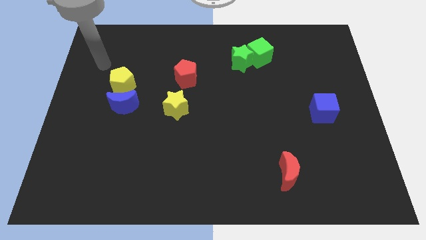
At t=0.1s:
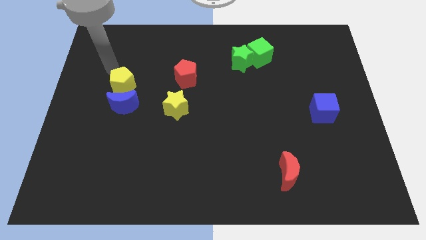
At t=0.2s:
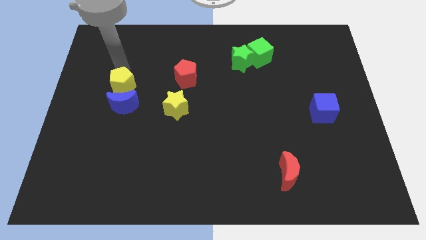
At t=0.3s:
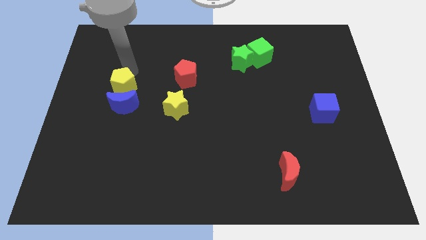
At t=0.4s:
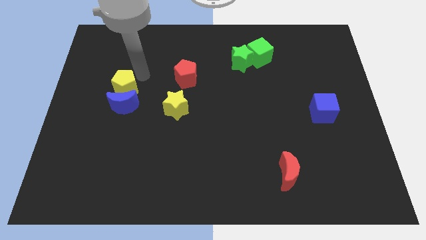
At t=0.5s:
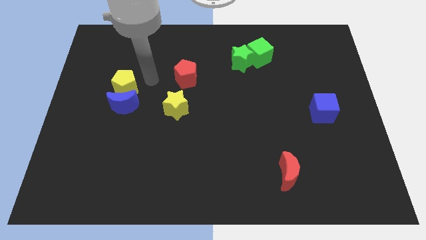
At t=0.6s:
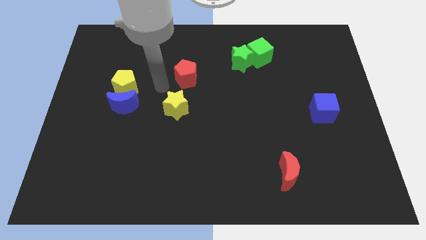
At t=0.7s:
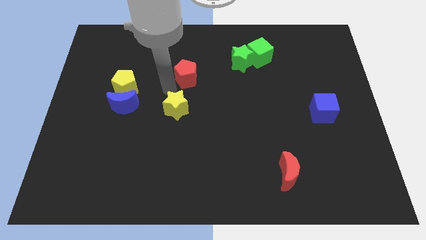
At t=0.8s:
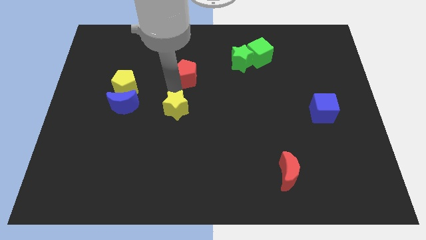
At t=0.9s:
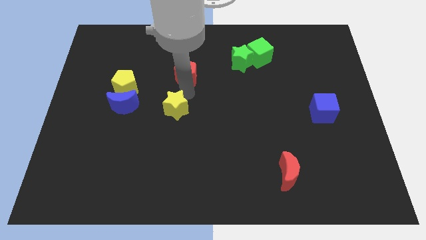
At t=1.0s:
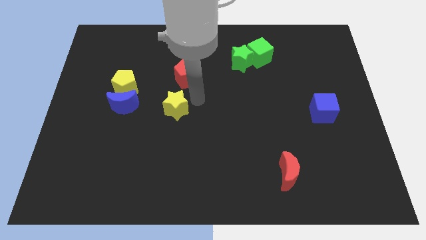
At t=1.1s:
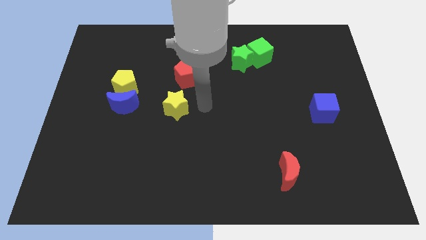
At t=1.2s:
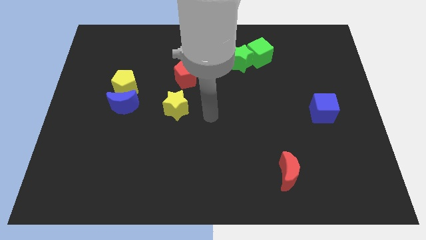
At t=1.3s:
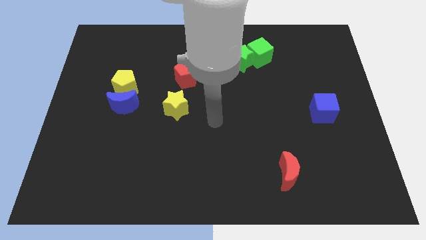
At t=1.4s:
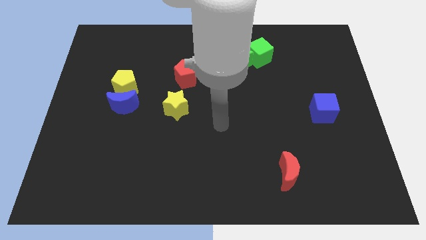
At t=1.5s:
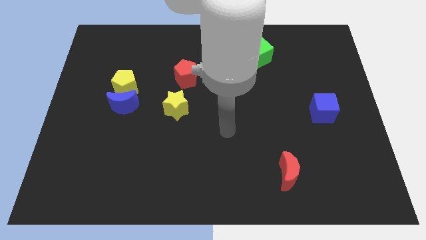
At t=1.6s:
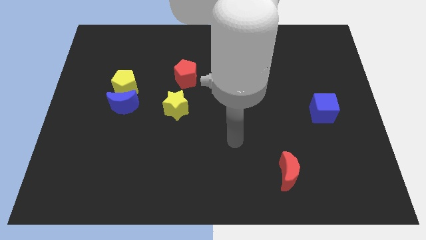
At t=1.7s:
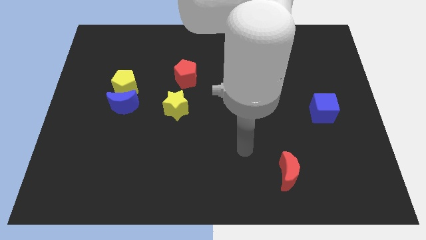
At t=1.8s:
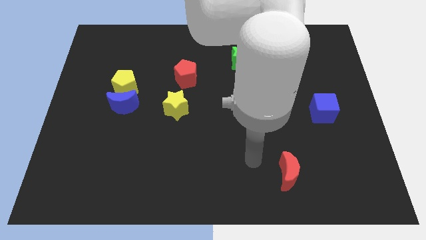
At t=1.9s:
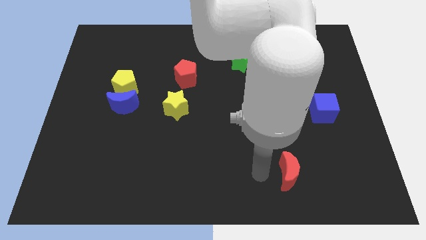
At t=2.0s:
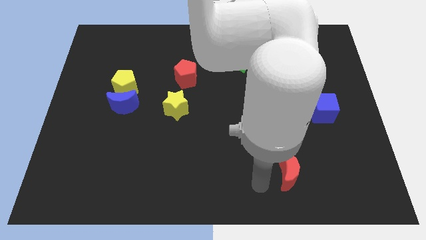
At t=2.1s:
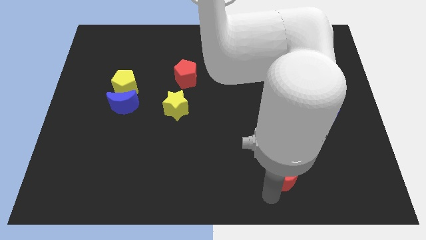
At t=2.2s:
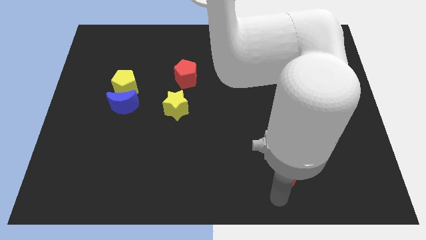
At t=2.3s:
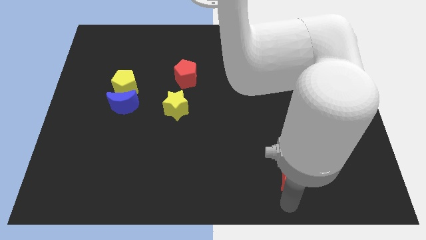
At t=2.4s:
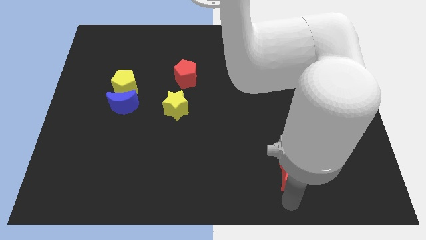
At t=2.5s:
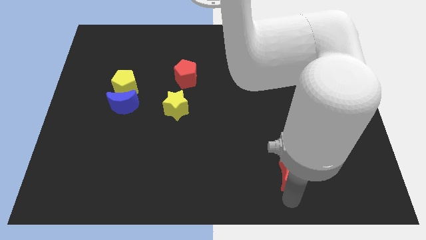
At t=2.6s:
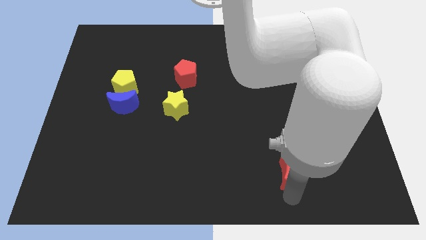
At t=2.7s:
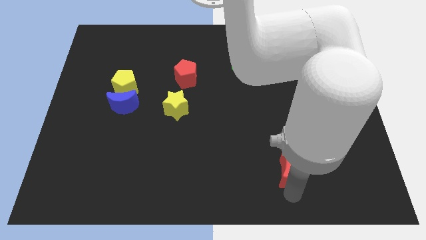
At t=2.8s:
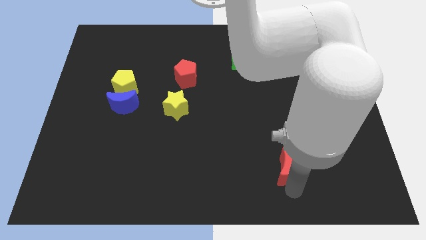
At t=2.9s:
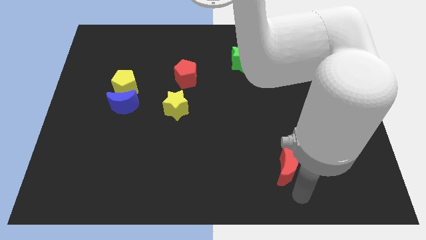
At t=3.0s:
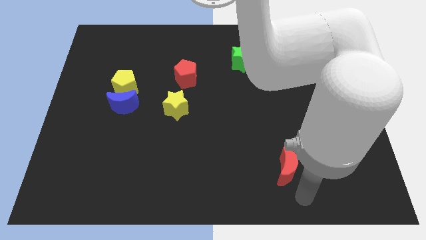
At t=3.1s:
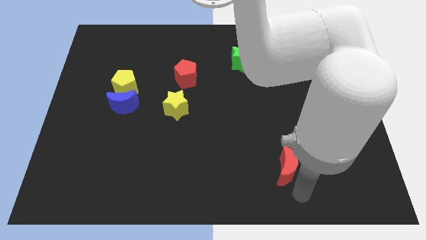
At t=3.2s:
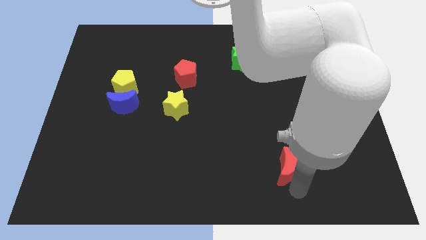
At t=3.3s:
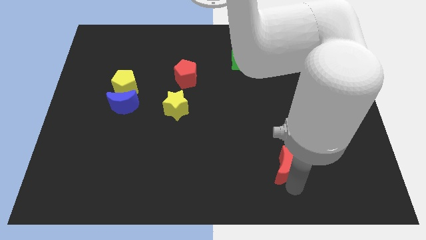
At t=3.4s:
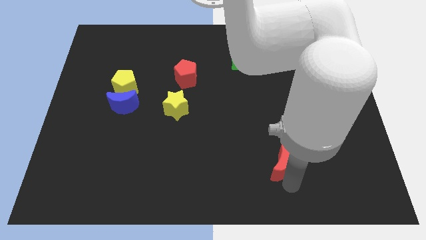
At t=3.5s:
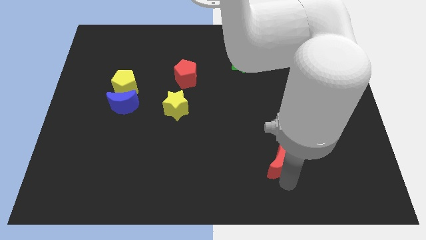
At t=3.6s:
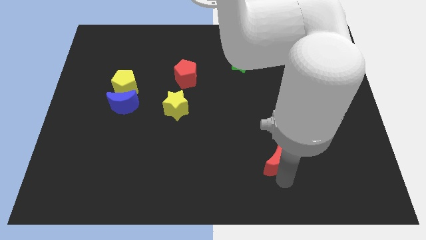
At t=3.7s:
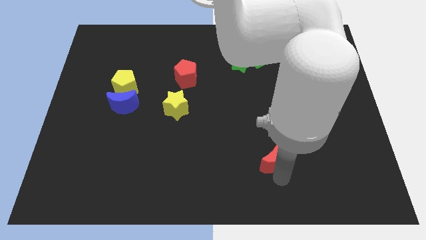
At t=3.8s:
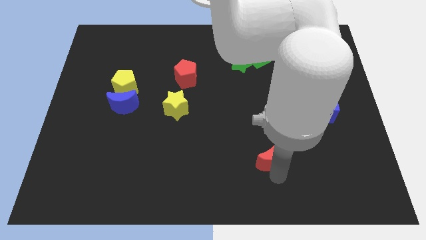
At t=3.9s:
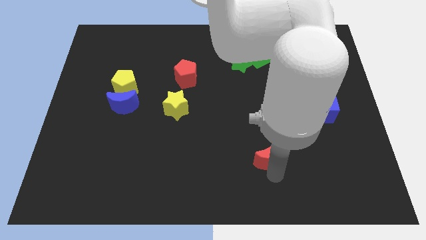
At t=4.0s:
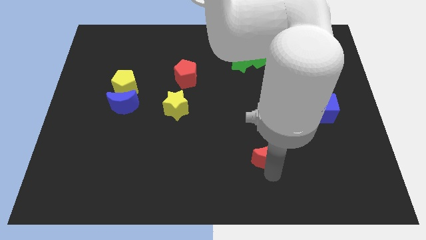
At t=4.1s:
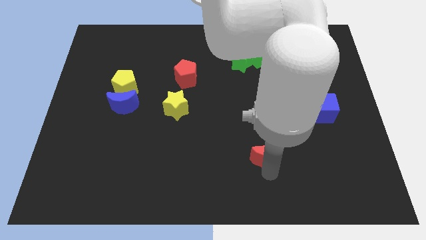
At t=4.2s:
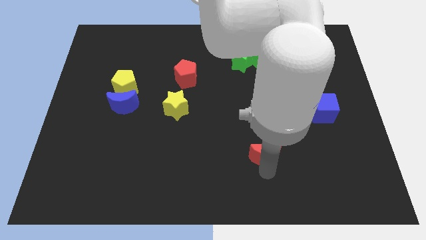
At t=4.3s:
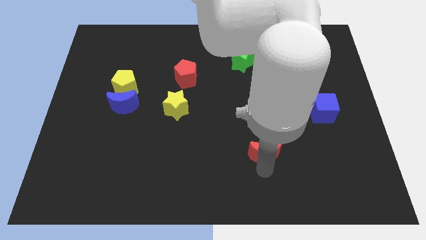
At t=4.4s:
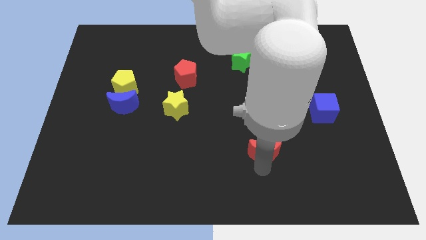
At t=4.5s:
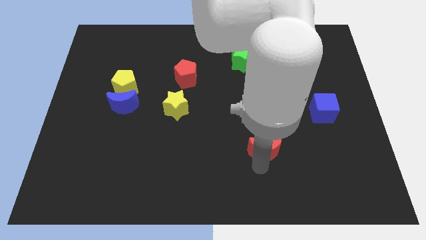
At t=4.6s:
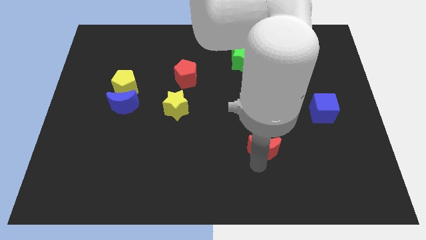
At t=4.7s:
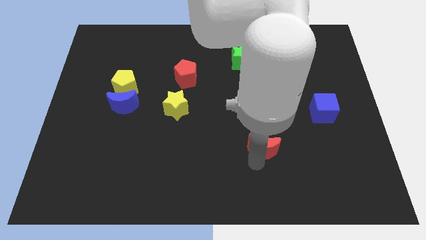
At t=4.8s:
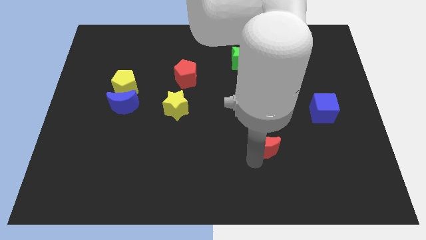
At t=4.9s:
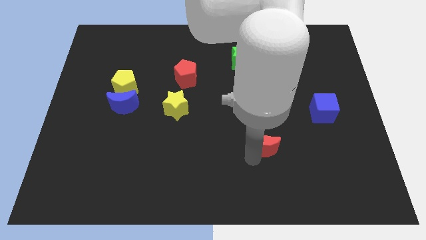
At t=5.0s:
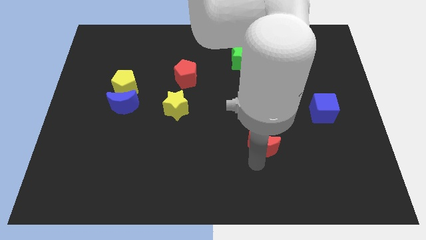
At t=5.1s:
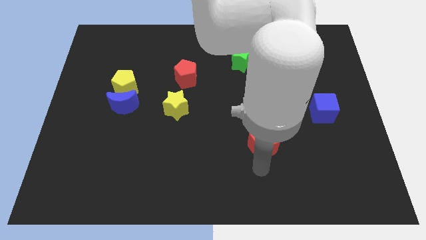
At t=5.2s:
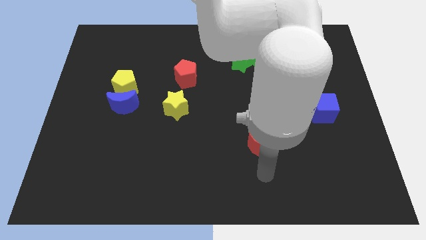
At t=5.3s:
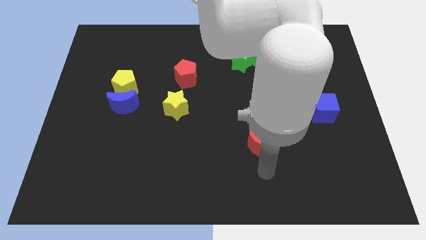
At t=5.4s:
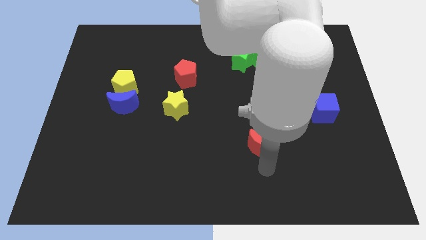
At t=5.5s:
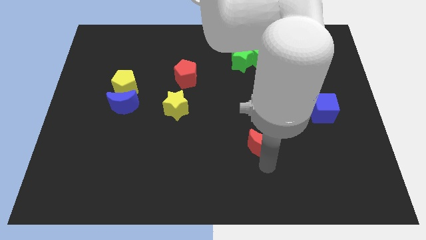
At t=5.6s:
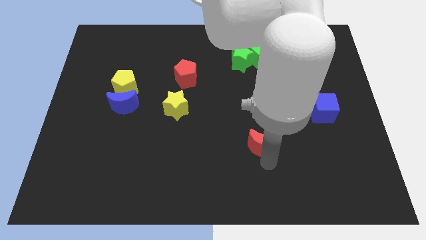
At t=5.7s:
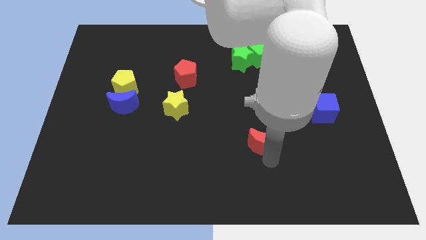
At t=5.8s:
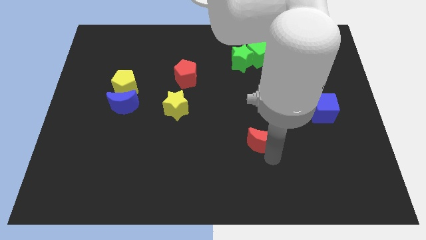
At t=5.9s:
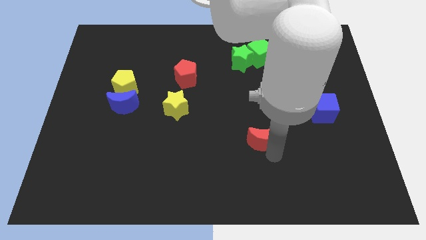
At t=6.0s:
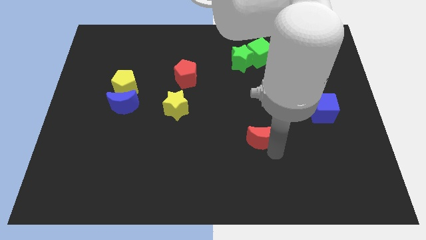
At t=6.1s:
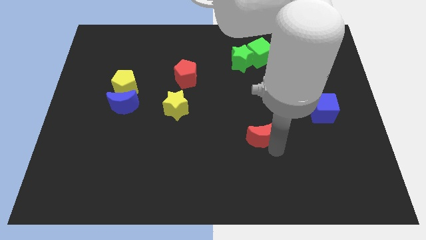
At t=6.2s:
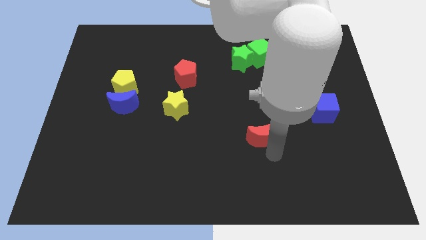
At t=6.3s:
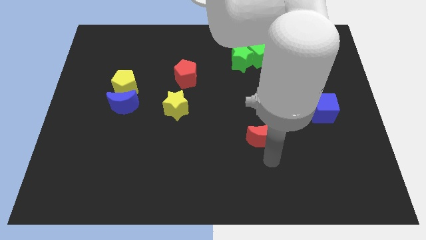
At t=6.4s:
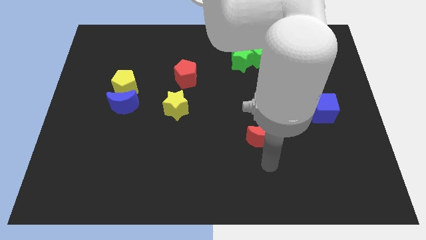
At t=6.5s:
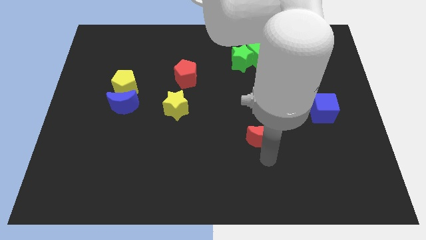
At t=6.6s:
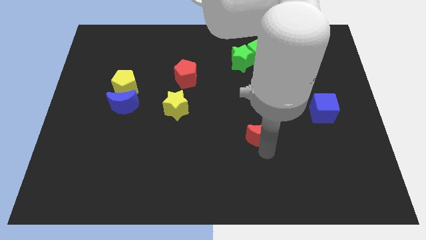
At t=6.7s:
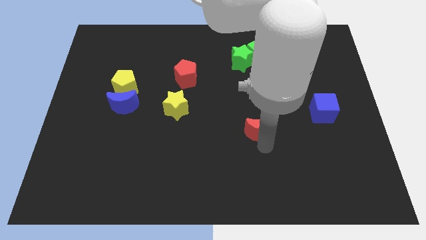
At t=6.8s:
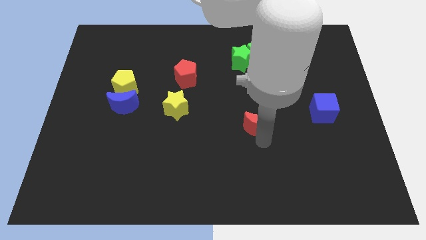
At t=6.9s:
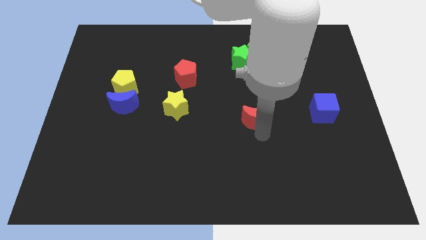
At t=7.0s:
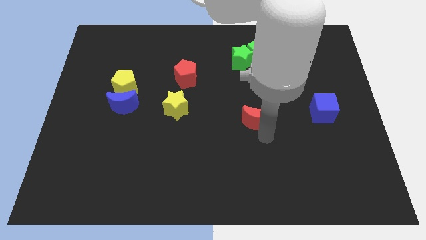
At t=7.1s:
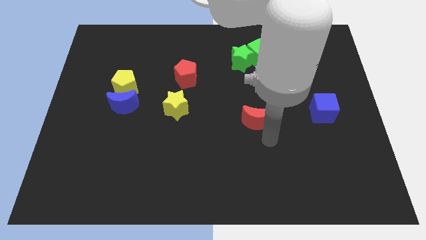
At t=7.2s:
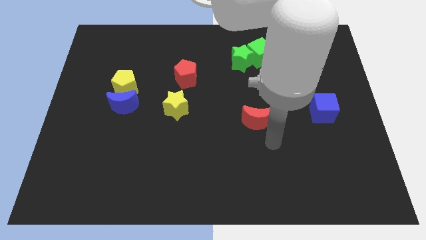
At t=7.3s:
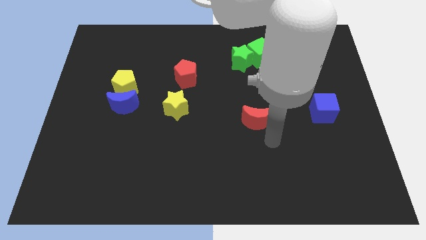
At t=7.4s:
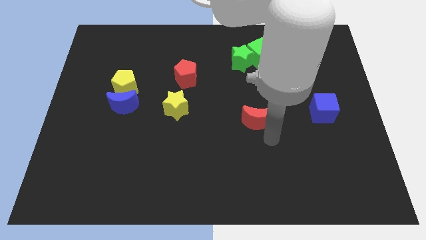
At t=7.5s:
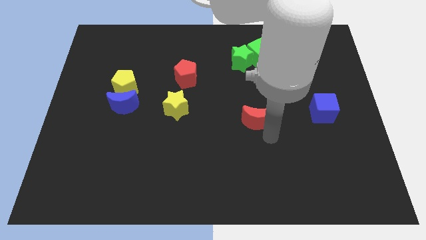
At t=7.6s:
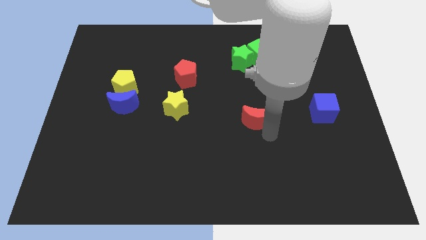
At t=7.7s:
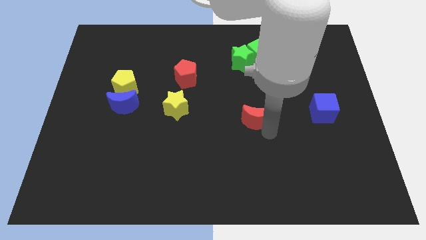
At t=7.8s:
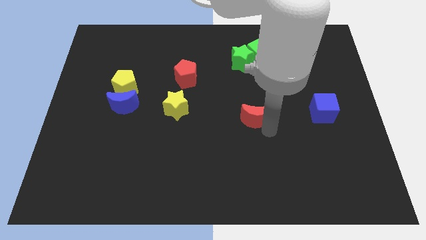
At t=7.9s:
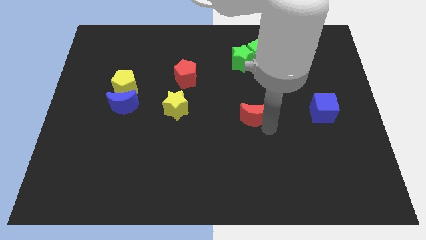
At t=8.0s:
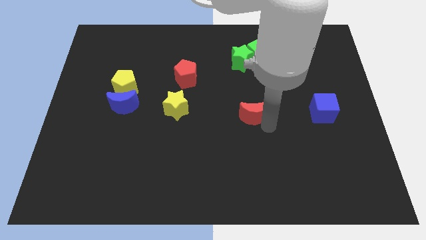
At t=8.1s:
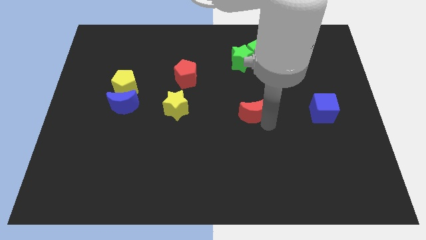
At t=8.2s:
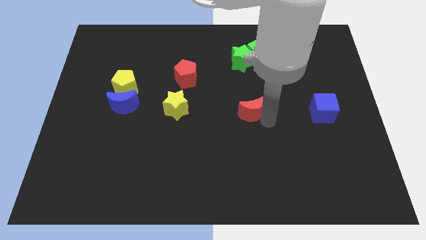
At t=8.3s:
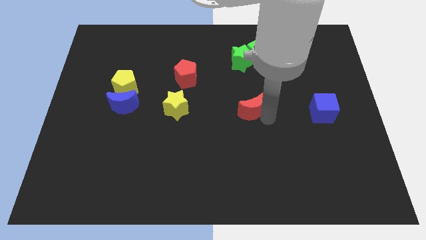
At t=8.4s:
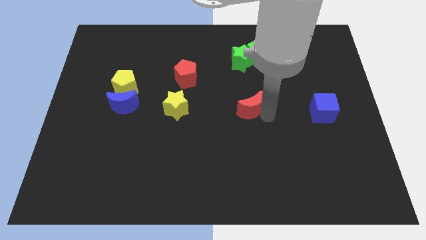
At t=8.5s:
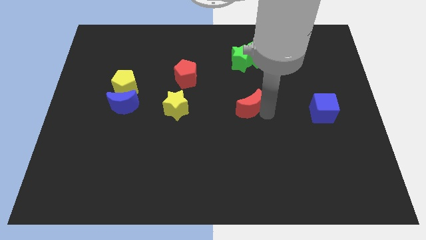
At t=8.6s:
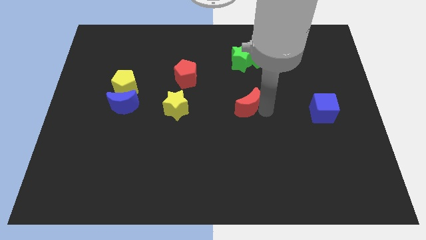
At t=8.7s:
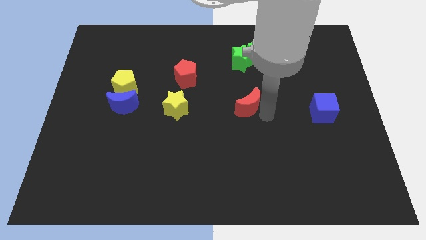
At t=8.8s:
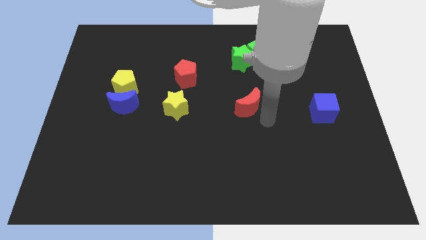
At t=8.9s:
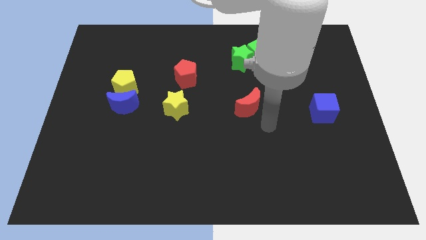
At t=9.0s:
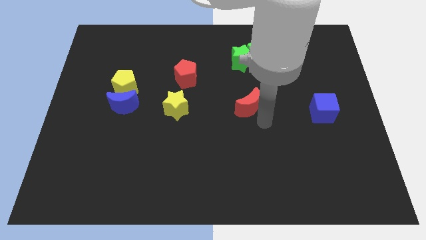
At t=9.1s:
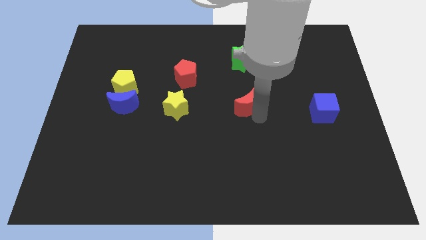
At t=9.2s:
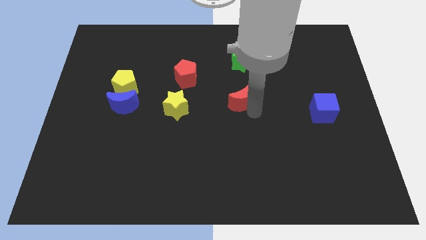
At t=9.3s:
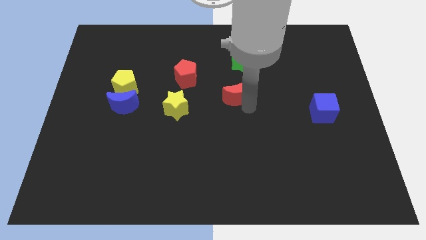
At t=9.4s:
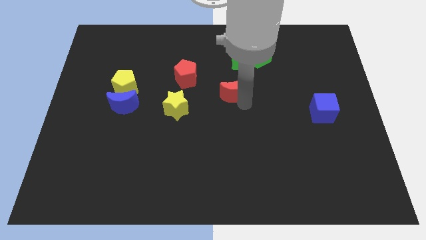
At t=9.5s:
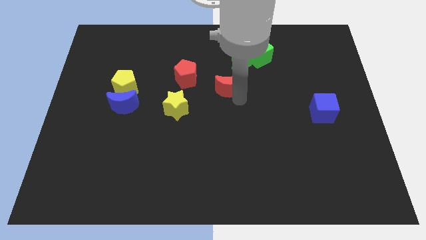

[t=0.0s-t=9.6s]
push the red moon to the bottom left side of the green star
